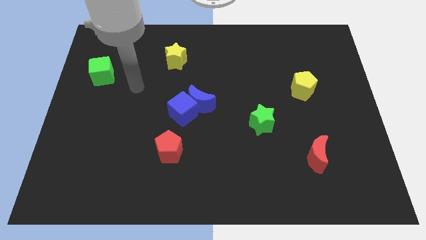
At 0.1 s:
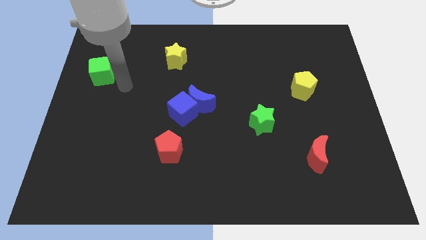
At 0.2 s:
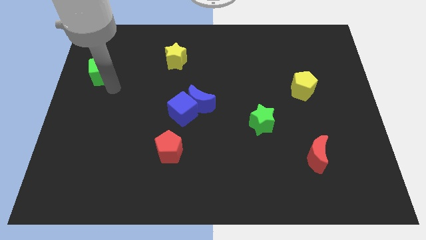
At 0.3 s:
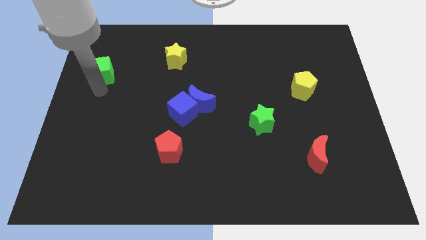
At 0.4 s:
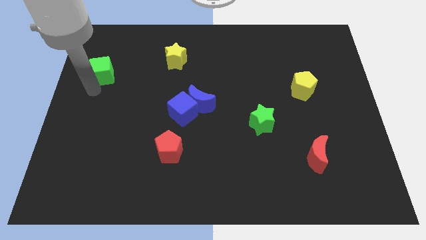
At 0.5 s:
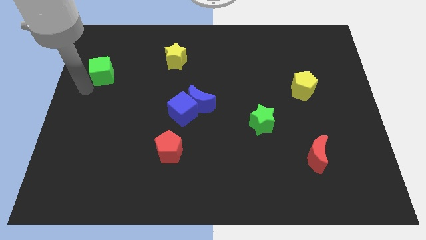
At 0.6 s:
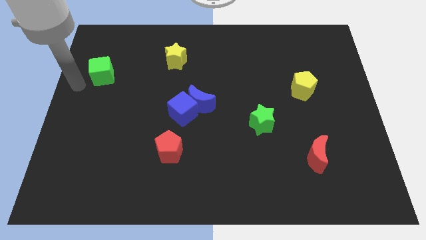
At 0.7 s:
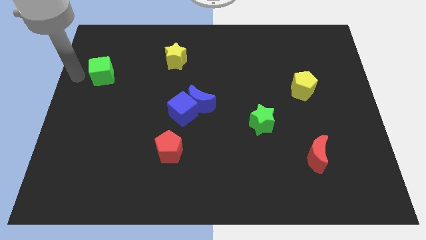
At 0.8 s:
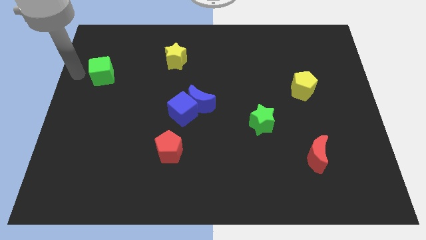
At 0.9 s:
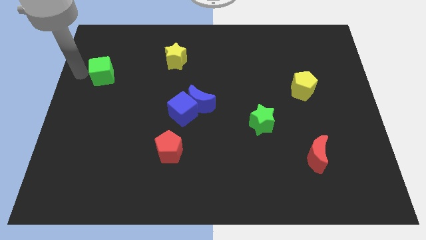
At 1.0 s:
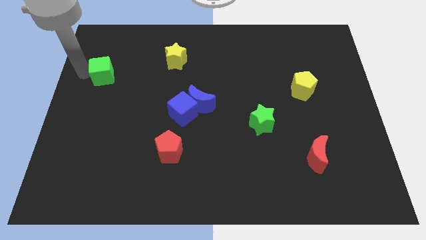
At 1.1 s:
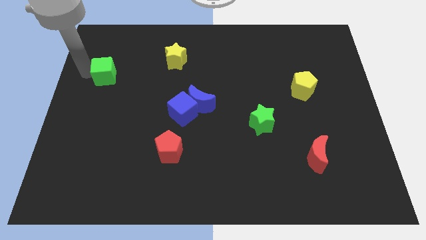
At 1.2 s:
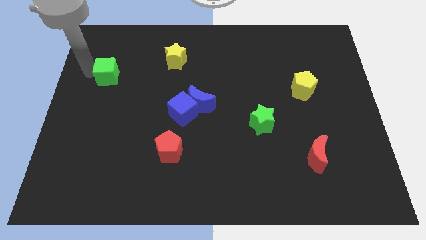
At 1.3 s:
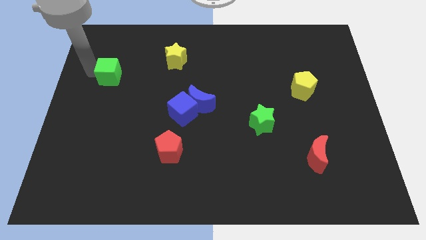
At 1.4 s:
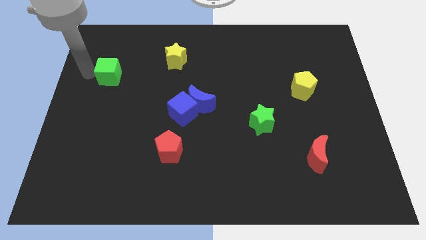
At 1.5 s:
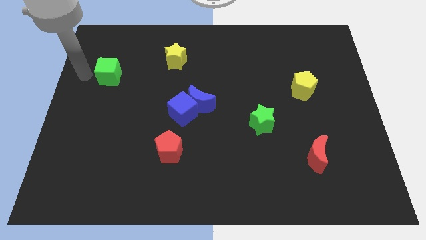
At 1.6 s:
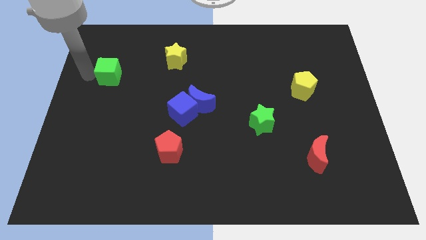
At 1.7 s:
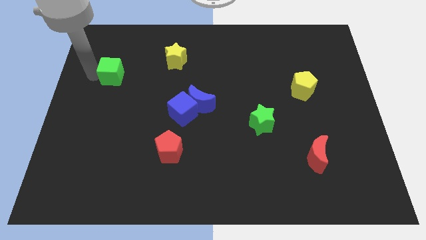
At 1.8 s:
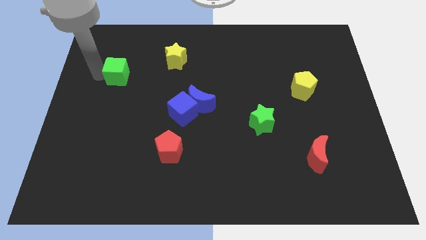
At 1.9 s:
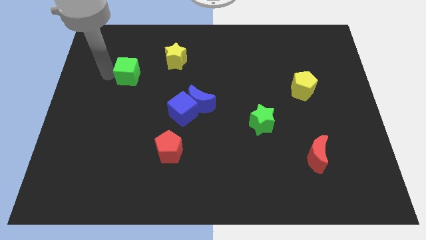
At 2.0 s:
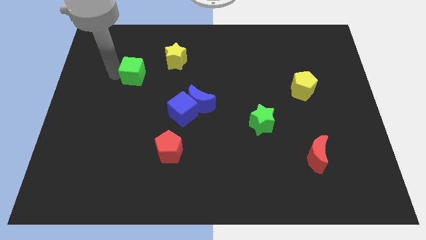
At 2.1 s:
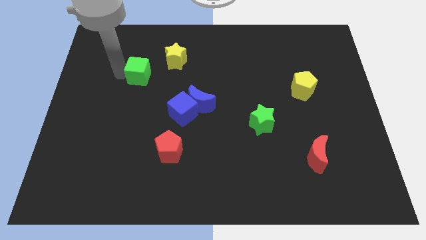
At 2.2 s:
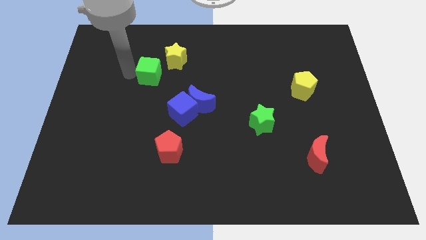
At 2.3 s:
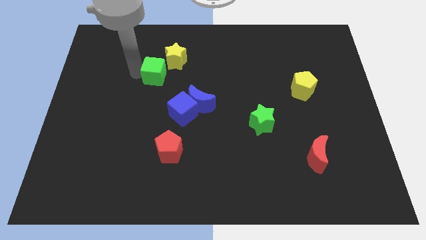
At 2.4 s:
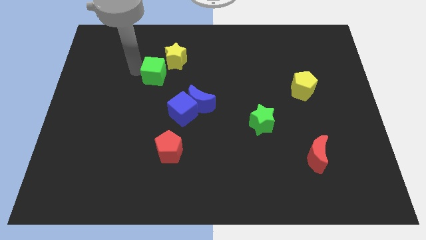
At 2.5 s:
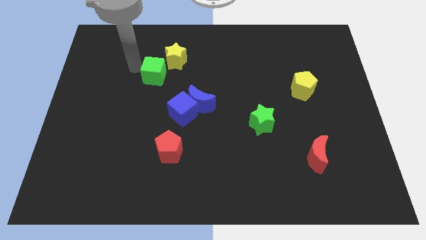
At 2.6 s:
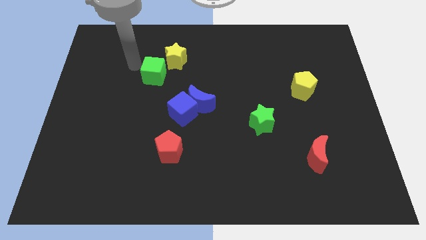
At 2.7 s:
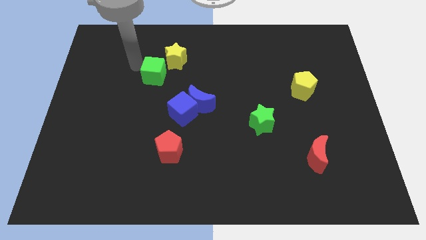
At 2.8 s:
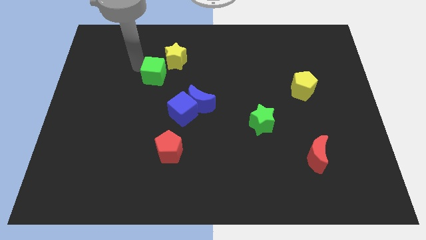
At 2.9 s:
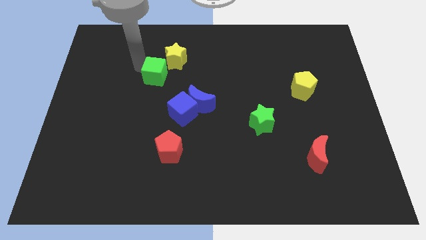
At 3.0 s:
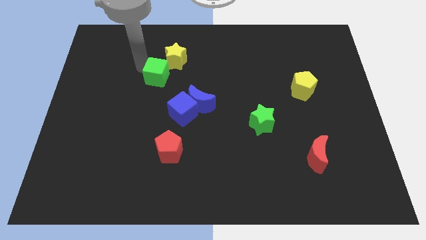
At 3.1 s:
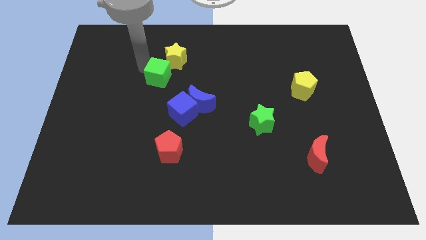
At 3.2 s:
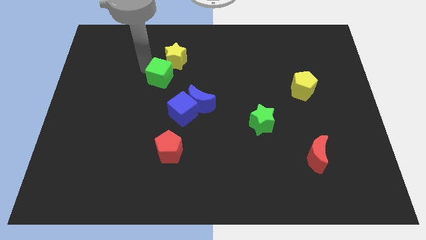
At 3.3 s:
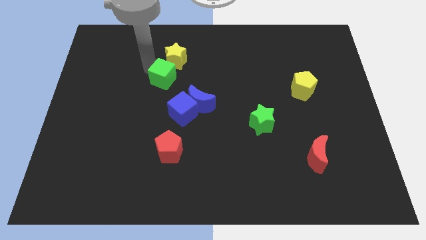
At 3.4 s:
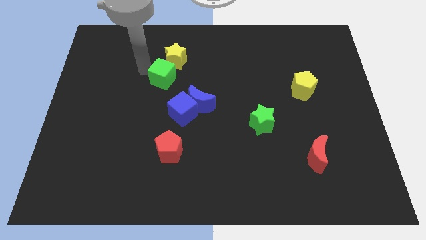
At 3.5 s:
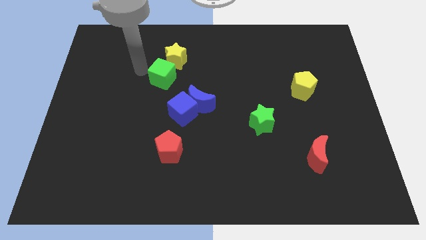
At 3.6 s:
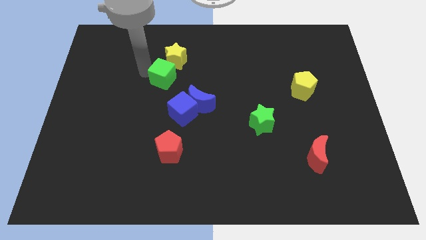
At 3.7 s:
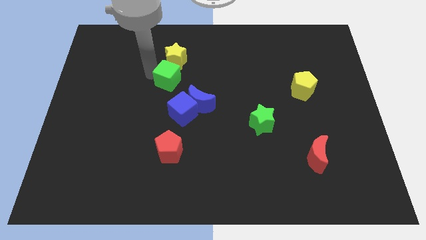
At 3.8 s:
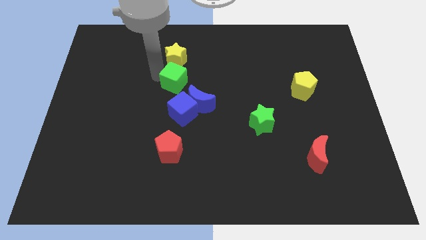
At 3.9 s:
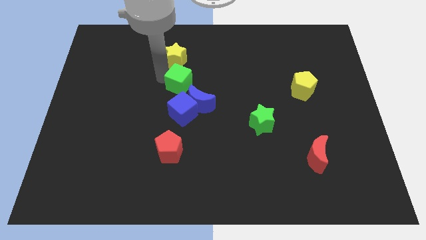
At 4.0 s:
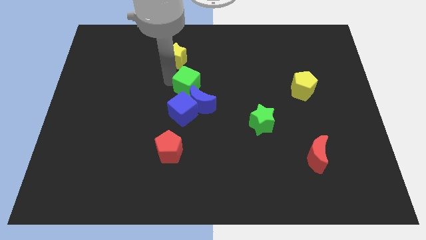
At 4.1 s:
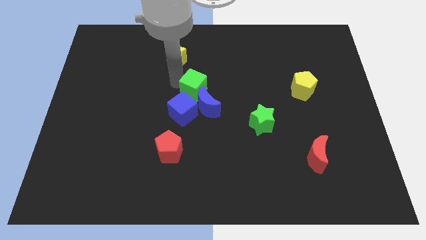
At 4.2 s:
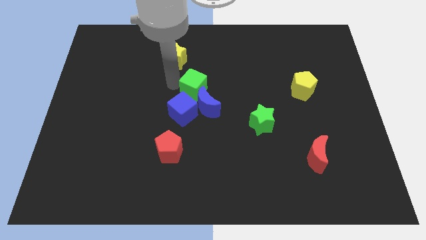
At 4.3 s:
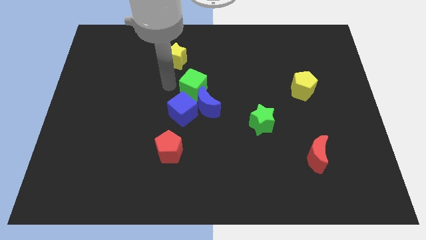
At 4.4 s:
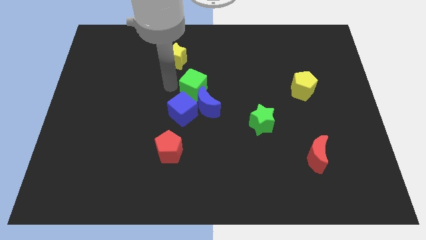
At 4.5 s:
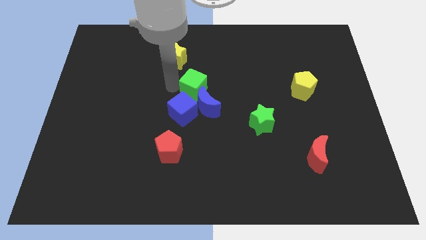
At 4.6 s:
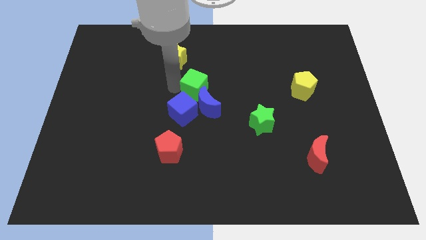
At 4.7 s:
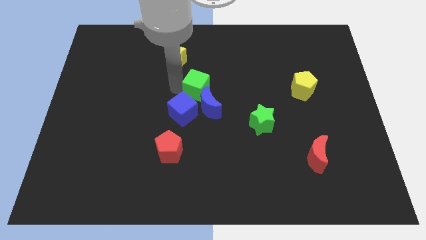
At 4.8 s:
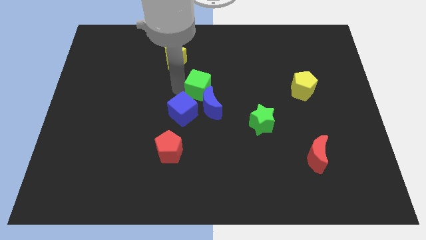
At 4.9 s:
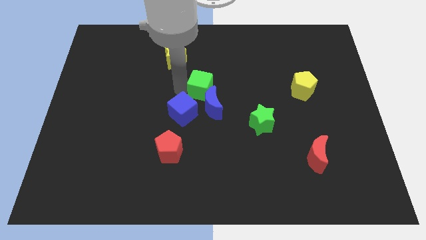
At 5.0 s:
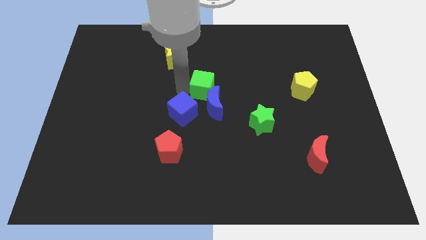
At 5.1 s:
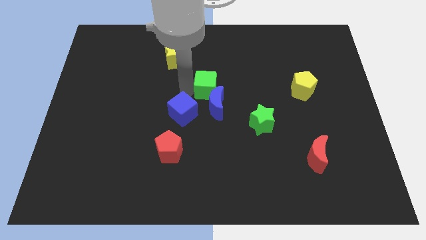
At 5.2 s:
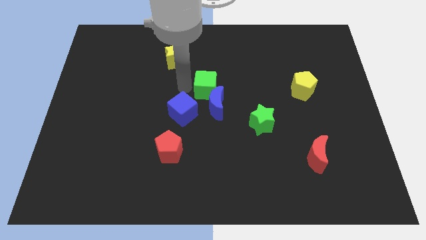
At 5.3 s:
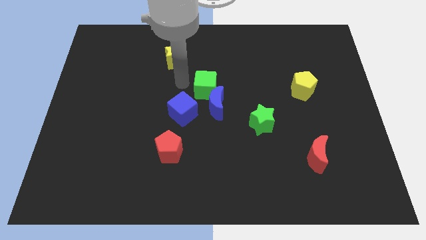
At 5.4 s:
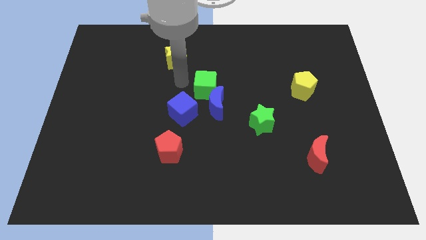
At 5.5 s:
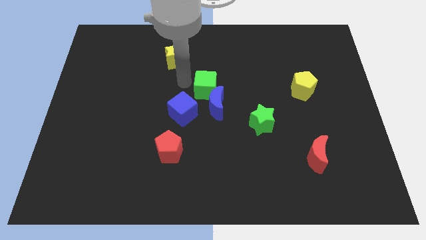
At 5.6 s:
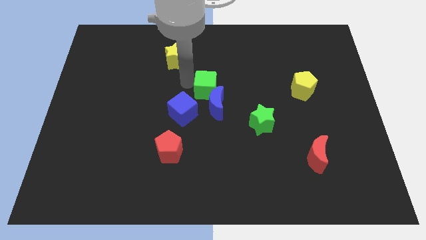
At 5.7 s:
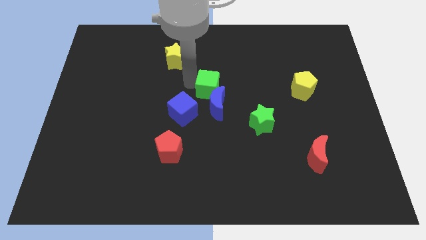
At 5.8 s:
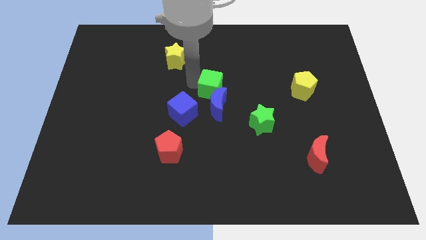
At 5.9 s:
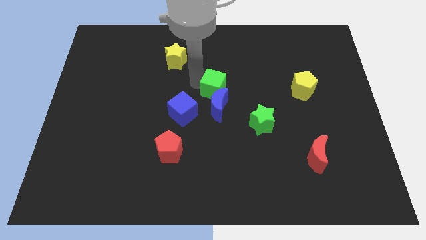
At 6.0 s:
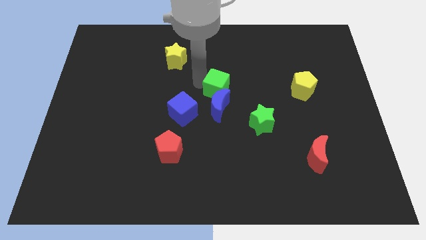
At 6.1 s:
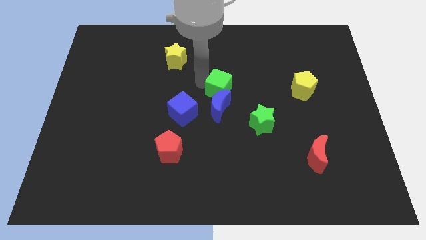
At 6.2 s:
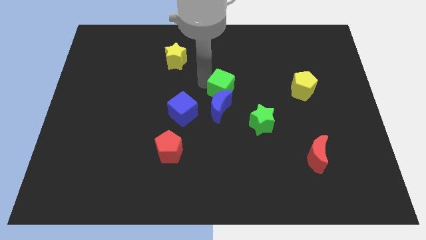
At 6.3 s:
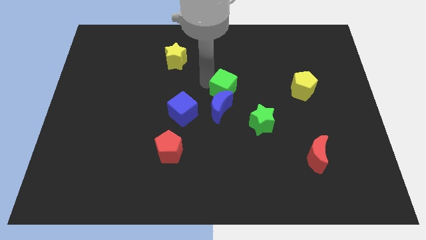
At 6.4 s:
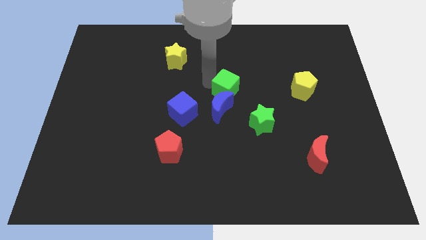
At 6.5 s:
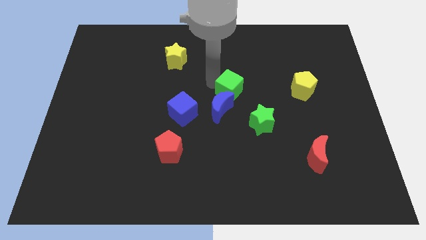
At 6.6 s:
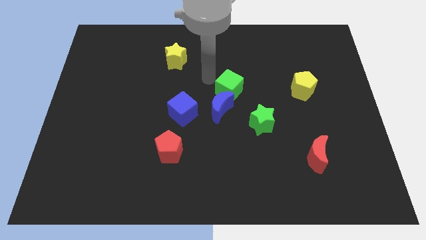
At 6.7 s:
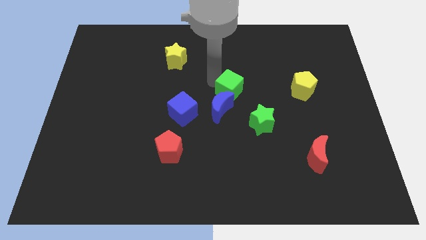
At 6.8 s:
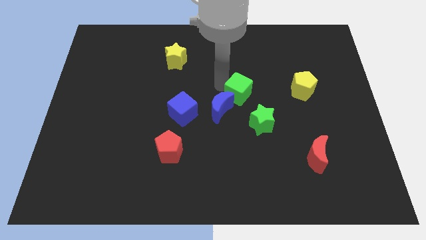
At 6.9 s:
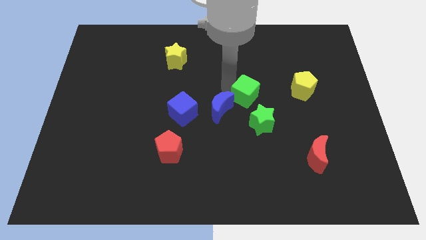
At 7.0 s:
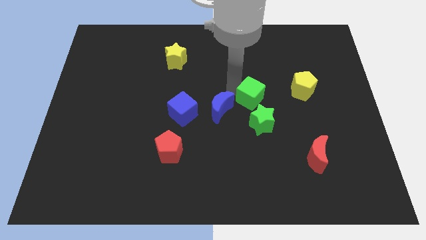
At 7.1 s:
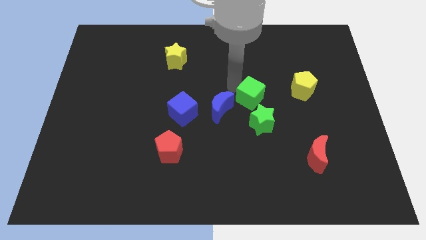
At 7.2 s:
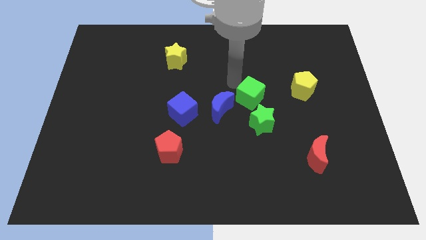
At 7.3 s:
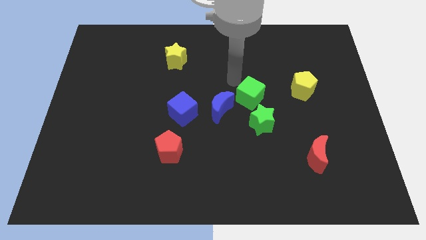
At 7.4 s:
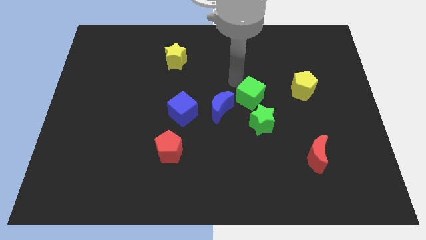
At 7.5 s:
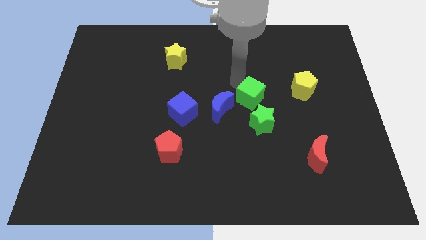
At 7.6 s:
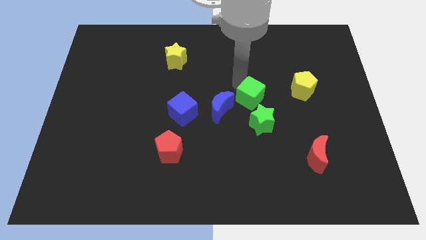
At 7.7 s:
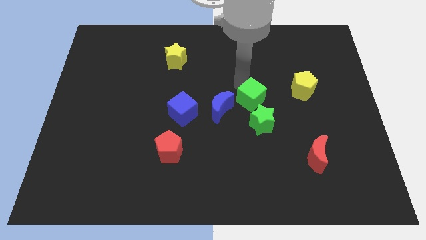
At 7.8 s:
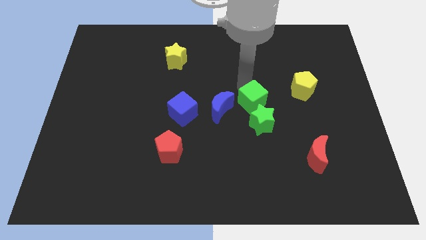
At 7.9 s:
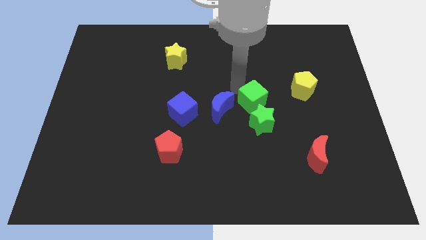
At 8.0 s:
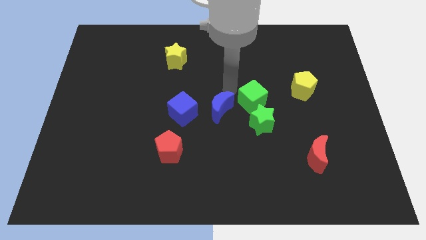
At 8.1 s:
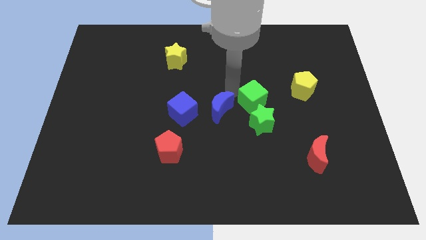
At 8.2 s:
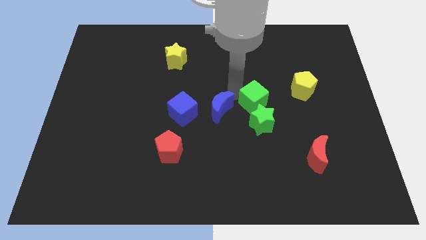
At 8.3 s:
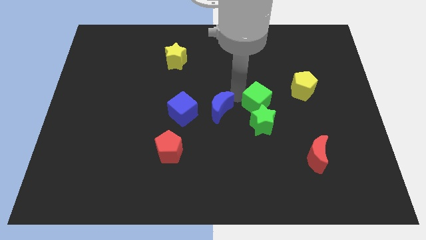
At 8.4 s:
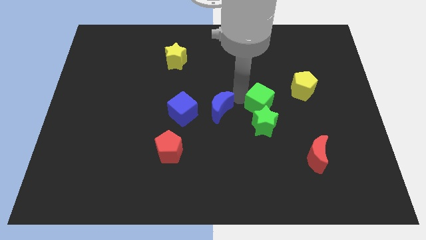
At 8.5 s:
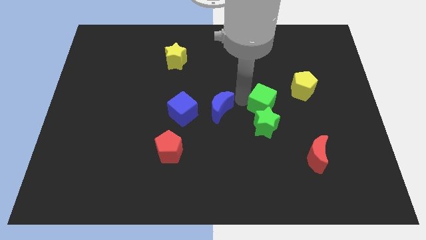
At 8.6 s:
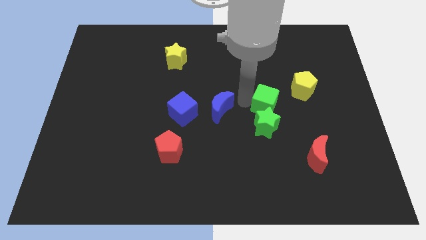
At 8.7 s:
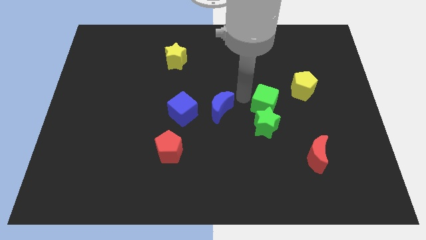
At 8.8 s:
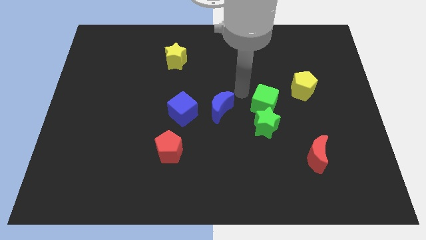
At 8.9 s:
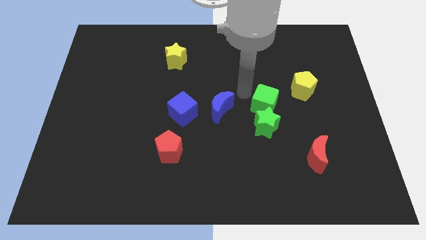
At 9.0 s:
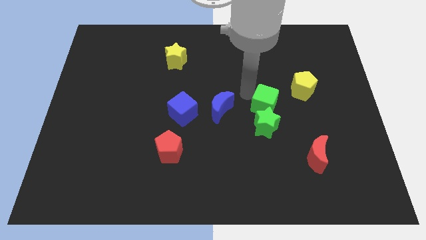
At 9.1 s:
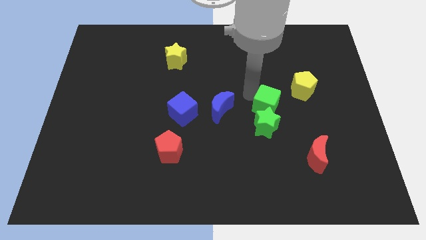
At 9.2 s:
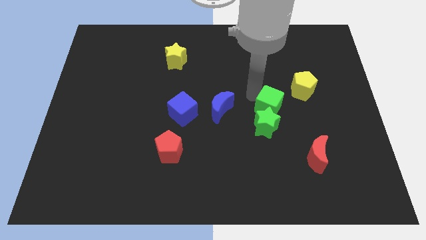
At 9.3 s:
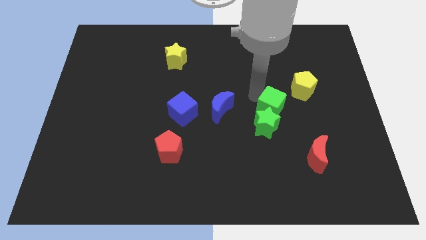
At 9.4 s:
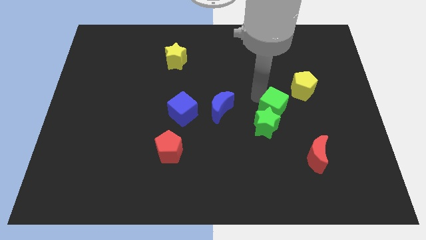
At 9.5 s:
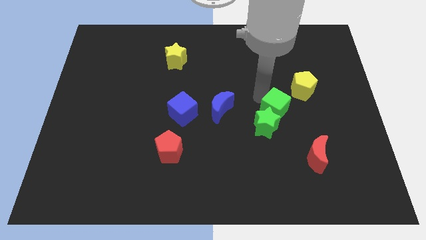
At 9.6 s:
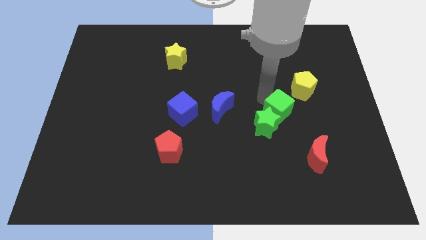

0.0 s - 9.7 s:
slide the green cube just right of the green star
